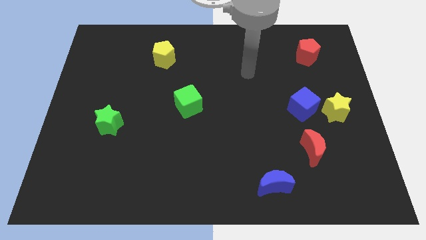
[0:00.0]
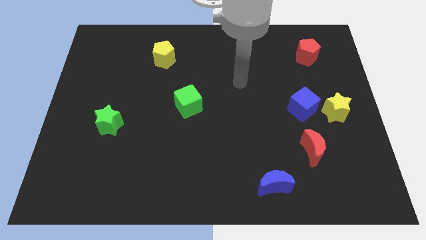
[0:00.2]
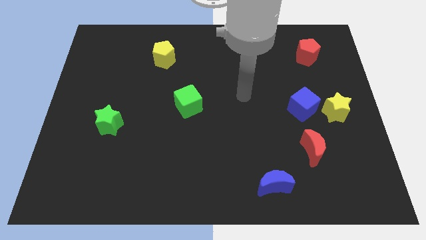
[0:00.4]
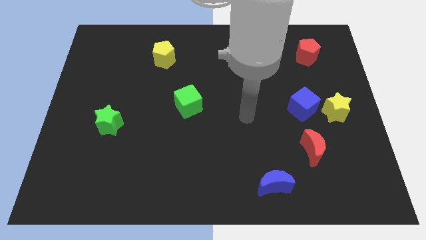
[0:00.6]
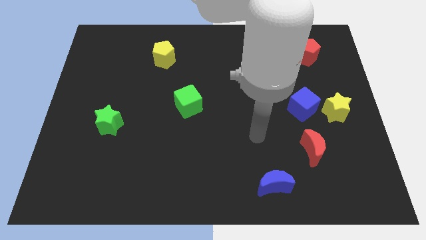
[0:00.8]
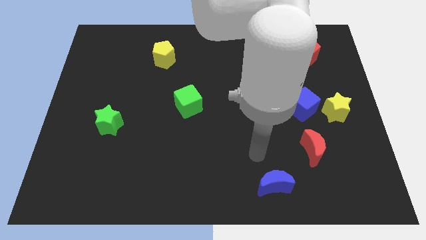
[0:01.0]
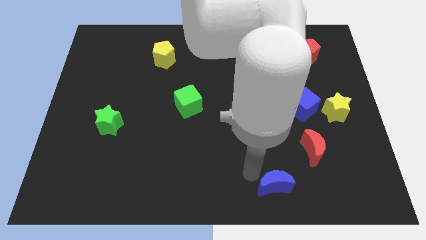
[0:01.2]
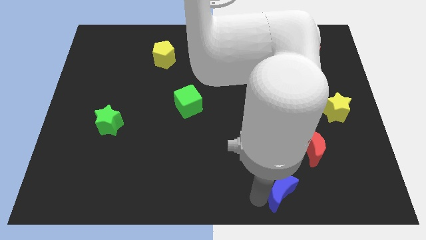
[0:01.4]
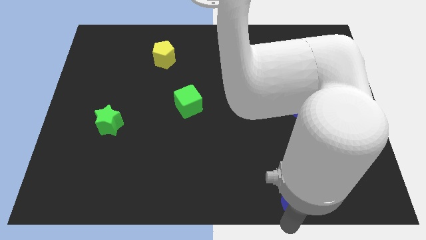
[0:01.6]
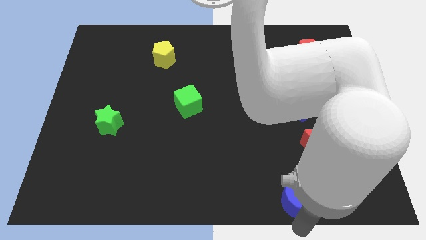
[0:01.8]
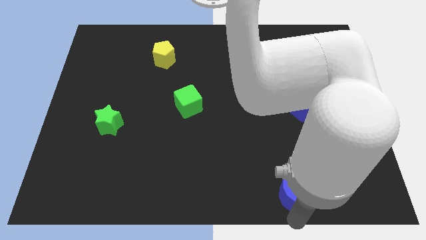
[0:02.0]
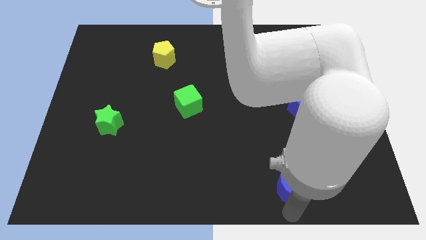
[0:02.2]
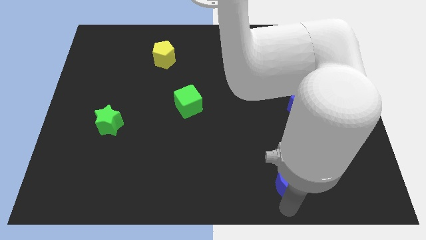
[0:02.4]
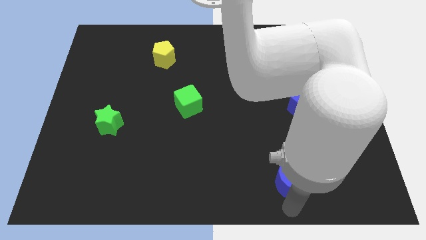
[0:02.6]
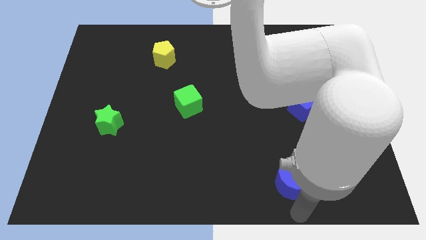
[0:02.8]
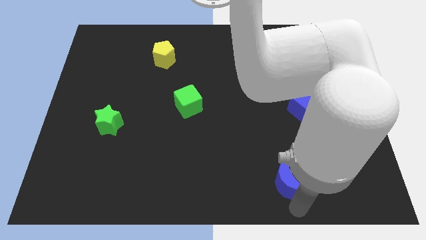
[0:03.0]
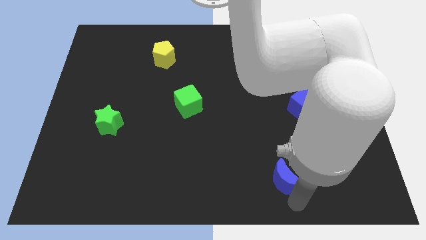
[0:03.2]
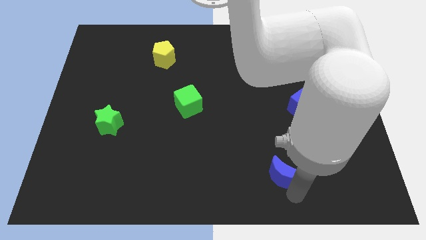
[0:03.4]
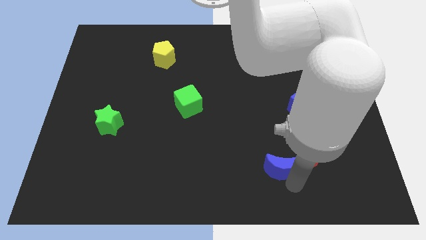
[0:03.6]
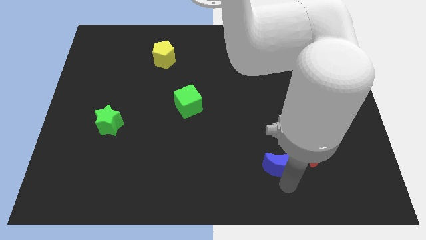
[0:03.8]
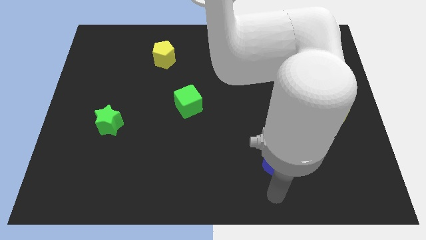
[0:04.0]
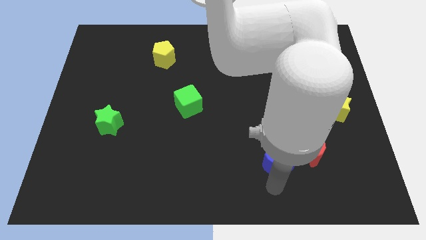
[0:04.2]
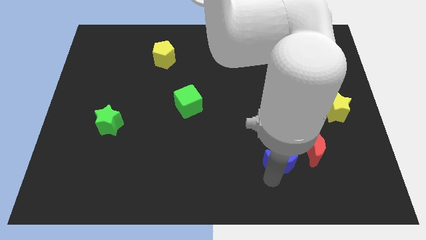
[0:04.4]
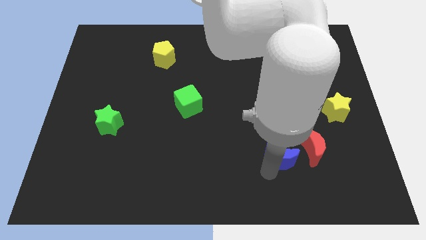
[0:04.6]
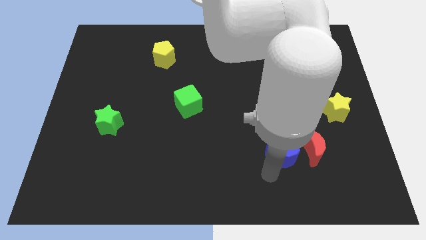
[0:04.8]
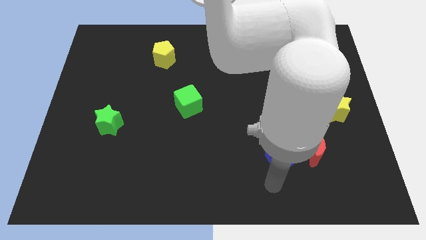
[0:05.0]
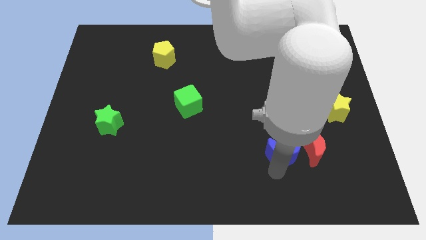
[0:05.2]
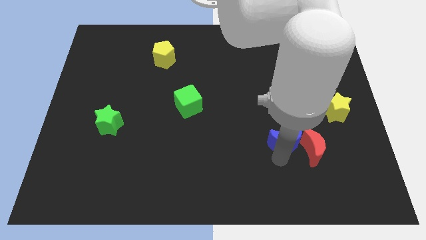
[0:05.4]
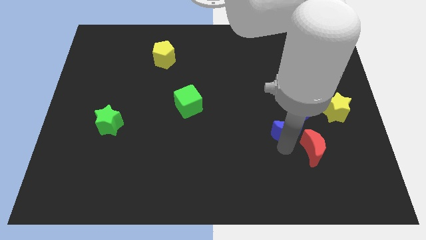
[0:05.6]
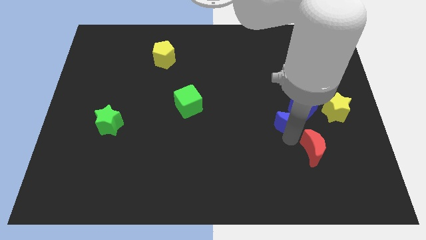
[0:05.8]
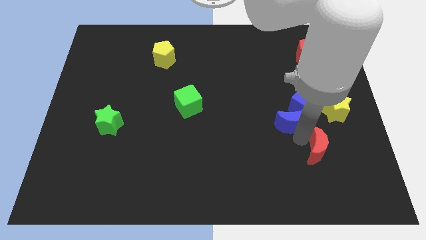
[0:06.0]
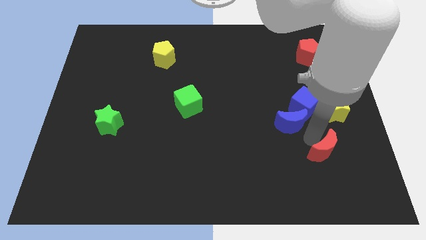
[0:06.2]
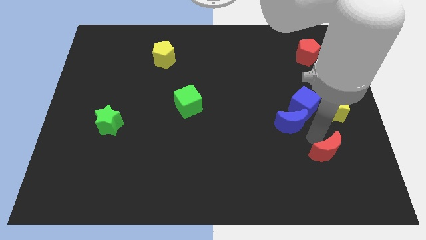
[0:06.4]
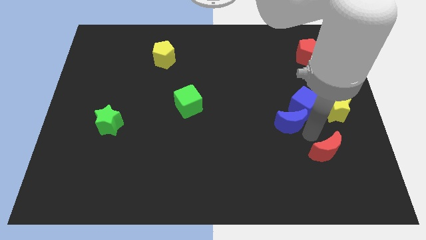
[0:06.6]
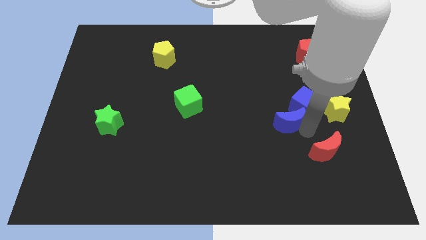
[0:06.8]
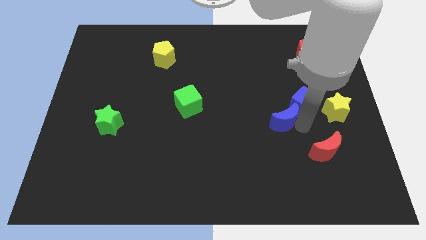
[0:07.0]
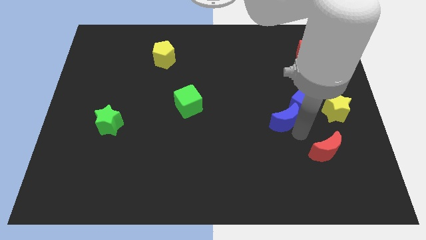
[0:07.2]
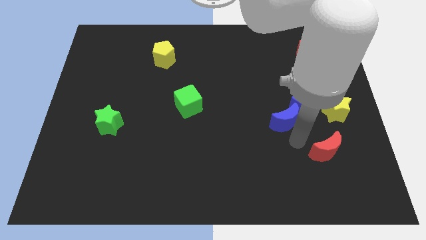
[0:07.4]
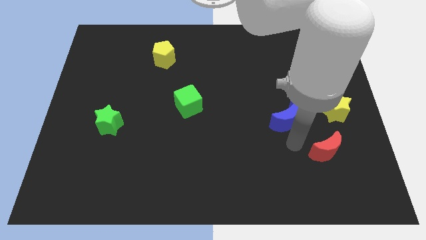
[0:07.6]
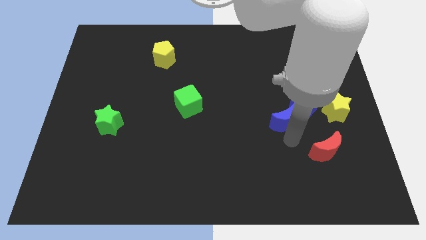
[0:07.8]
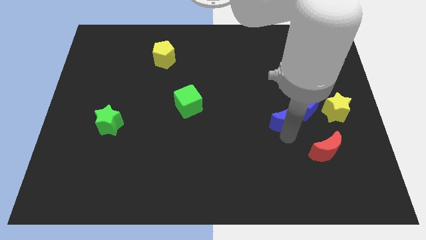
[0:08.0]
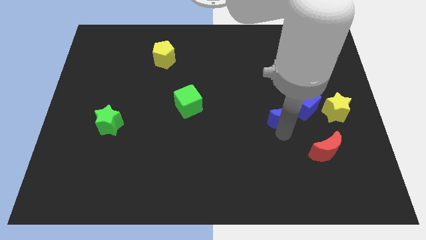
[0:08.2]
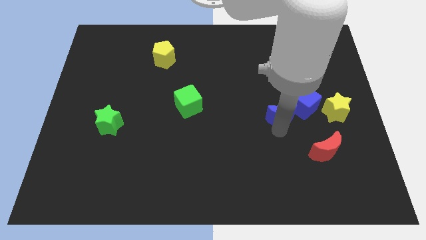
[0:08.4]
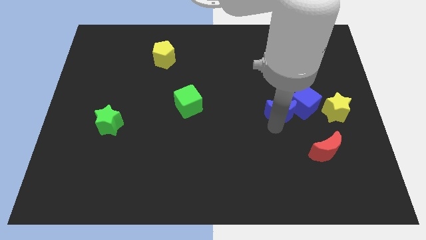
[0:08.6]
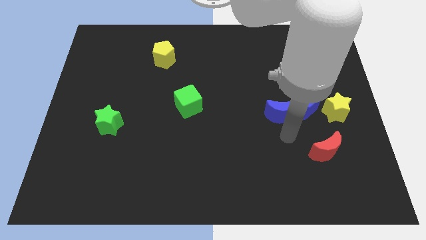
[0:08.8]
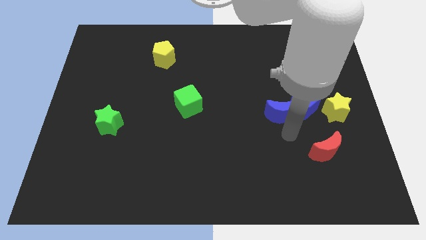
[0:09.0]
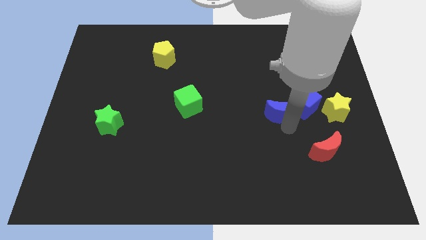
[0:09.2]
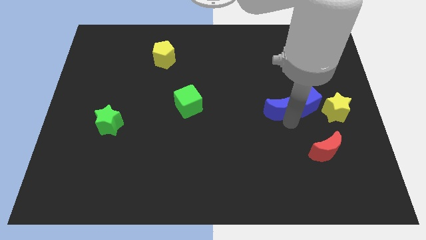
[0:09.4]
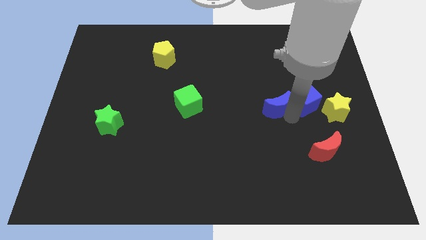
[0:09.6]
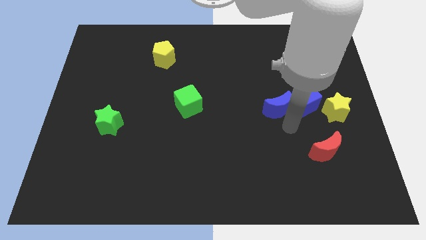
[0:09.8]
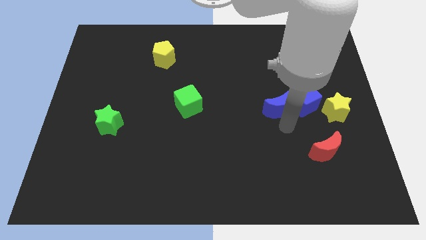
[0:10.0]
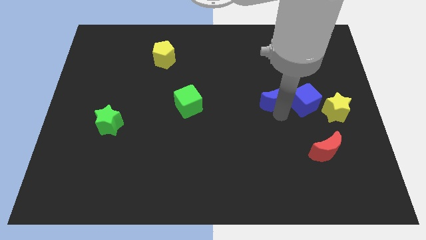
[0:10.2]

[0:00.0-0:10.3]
move the blue moon up

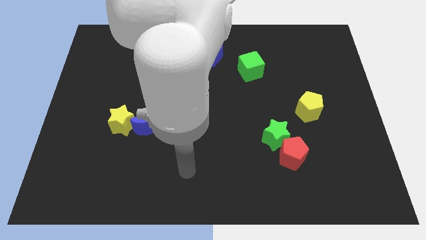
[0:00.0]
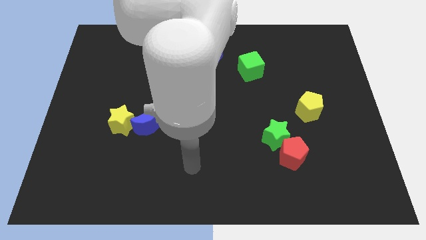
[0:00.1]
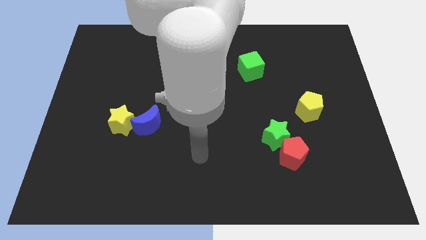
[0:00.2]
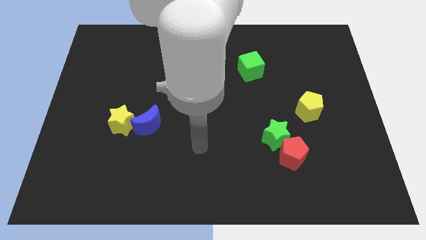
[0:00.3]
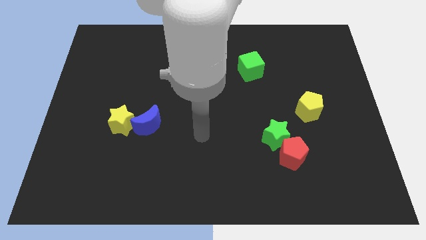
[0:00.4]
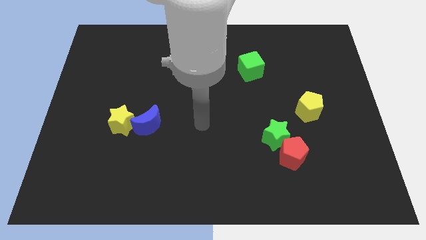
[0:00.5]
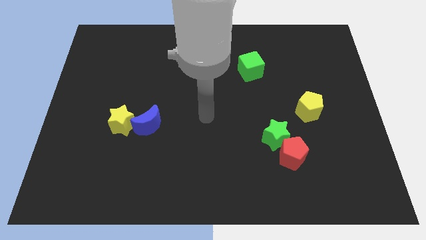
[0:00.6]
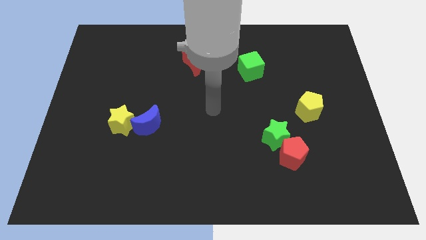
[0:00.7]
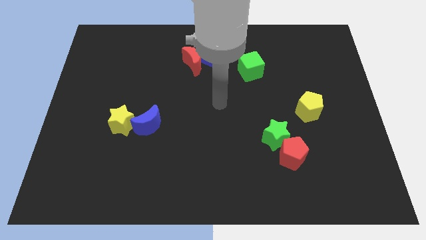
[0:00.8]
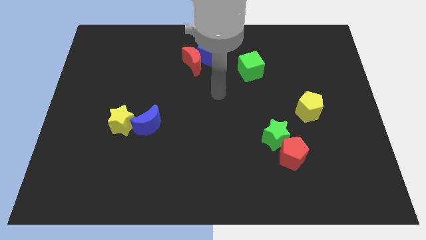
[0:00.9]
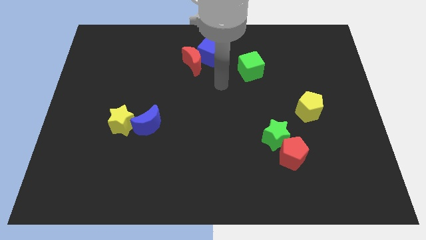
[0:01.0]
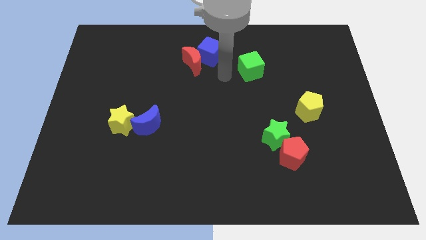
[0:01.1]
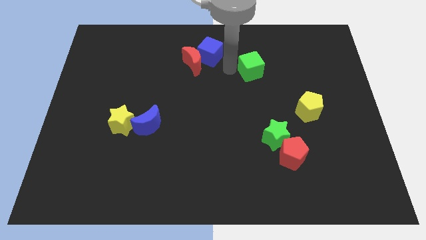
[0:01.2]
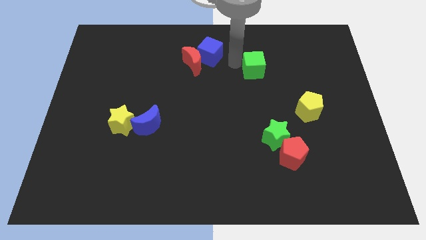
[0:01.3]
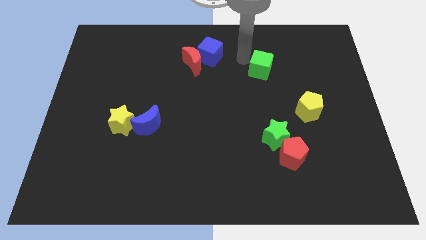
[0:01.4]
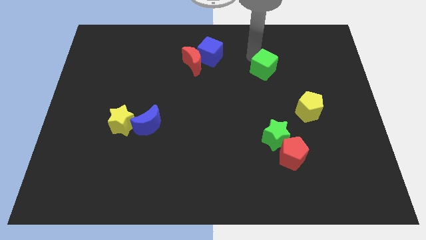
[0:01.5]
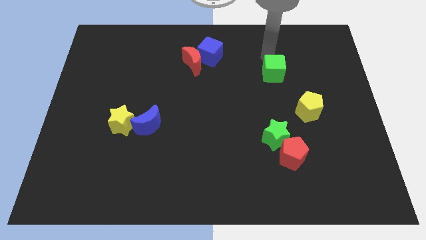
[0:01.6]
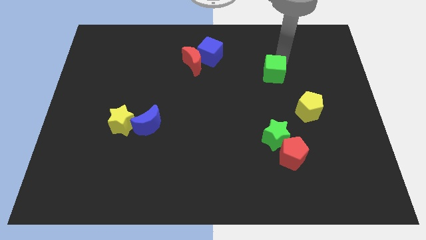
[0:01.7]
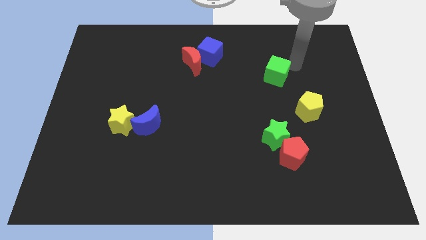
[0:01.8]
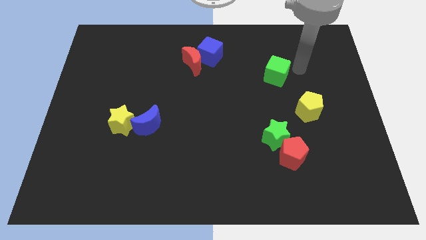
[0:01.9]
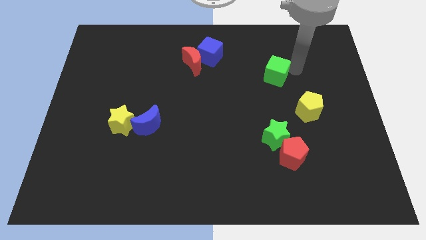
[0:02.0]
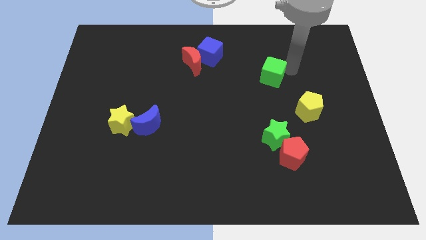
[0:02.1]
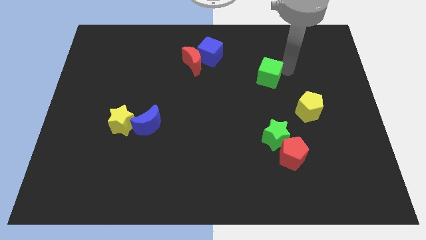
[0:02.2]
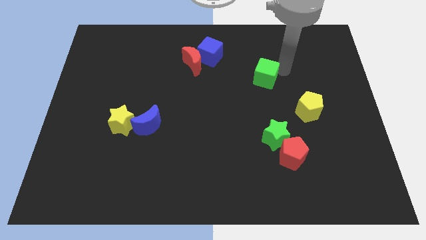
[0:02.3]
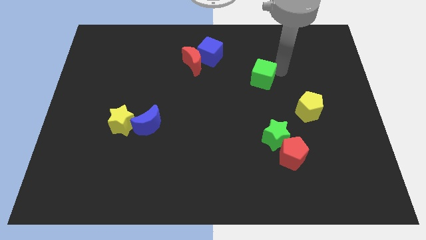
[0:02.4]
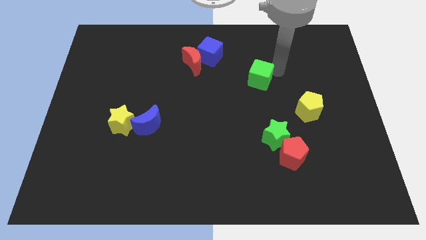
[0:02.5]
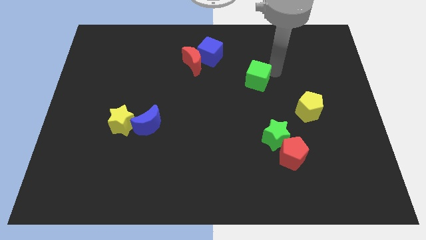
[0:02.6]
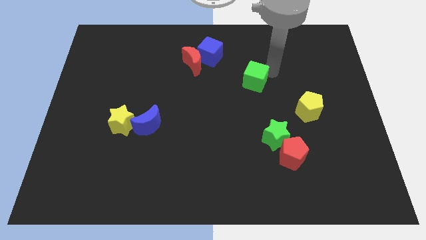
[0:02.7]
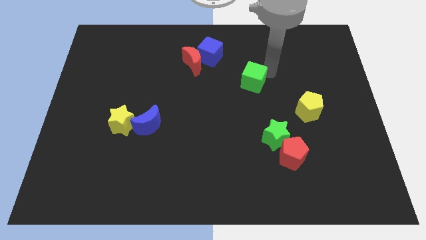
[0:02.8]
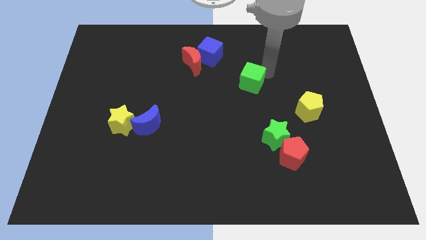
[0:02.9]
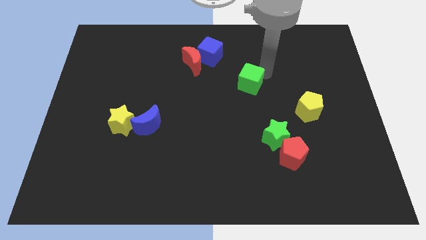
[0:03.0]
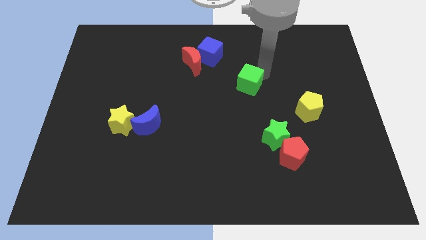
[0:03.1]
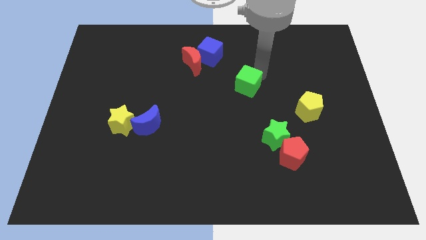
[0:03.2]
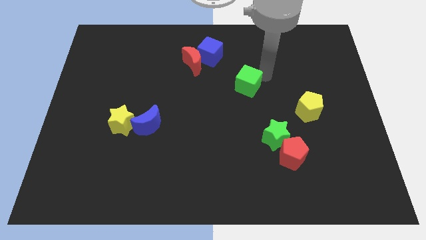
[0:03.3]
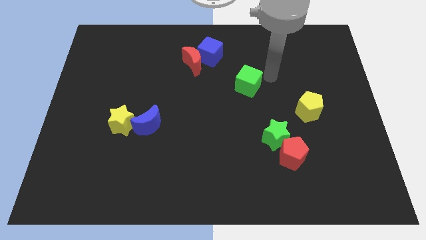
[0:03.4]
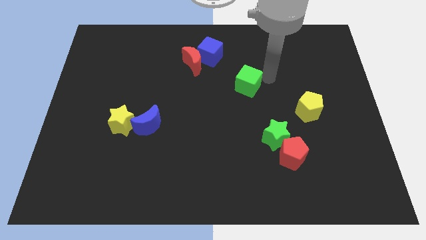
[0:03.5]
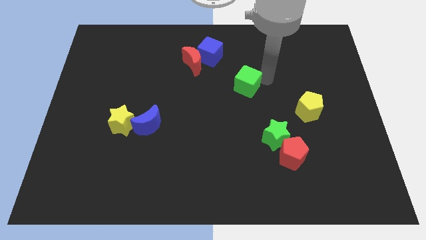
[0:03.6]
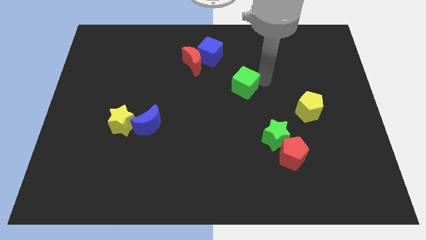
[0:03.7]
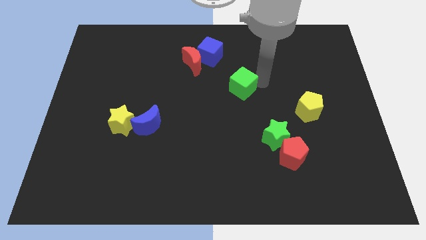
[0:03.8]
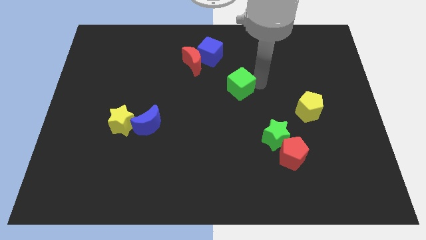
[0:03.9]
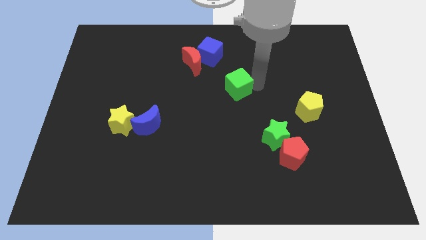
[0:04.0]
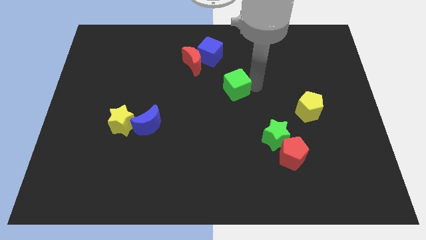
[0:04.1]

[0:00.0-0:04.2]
slide the green cube diagonally down and to the left a little bit
